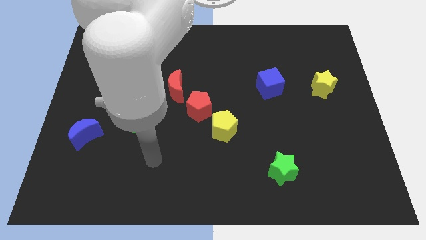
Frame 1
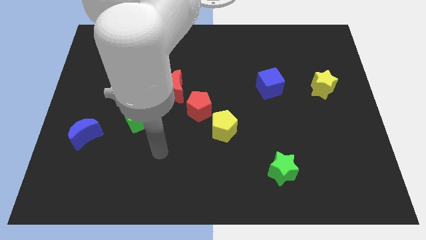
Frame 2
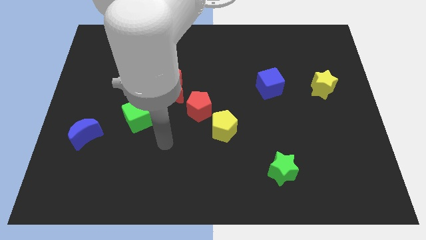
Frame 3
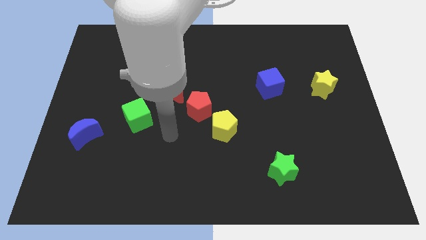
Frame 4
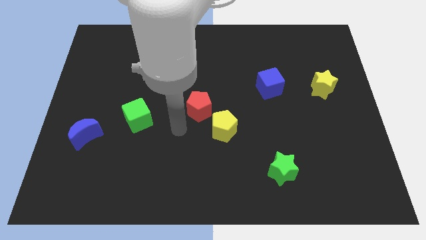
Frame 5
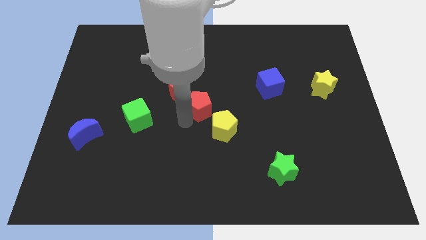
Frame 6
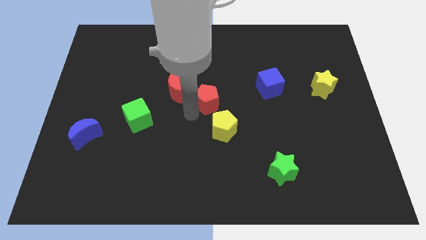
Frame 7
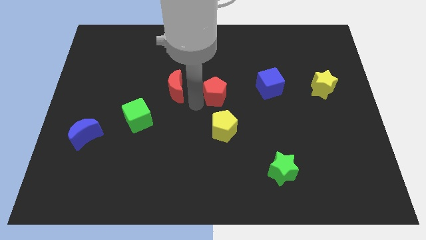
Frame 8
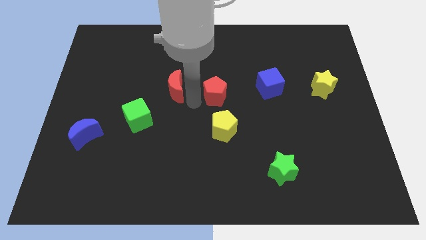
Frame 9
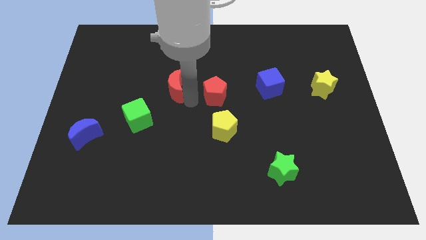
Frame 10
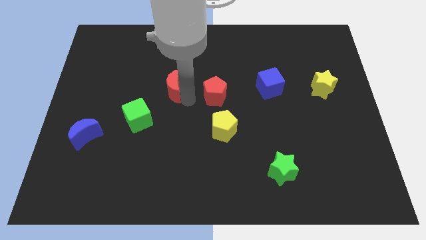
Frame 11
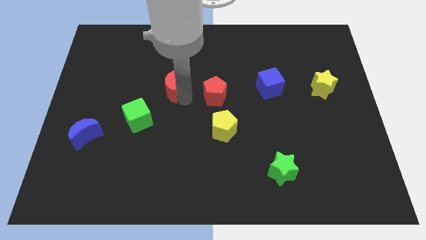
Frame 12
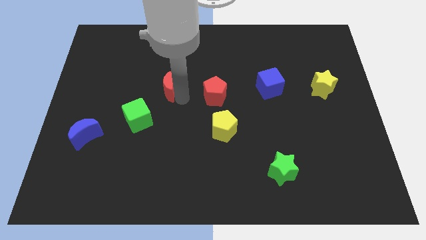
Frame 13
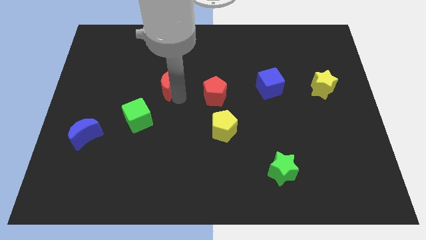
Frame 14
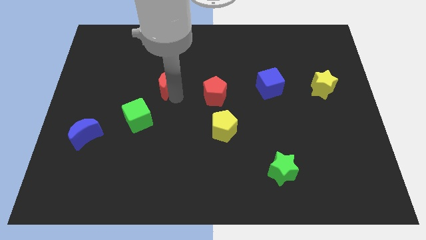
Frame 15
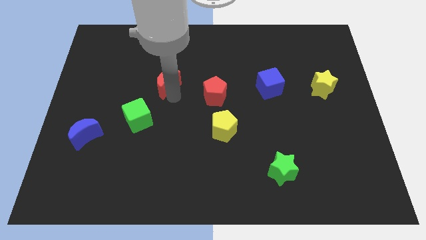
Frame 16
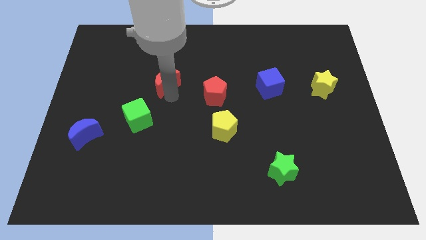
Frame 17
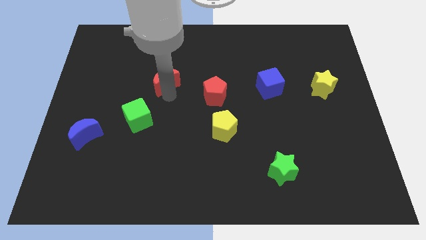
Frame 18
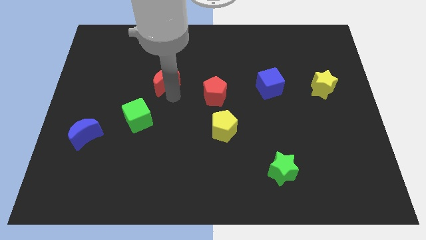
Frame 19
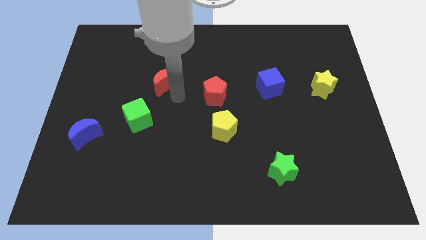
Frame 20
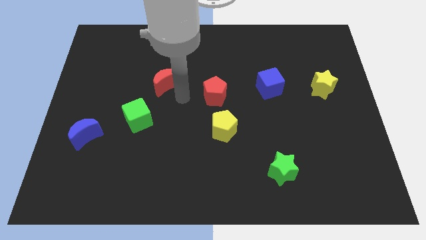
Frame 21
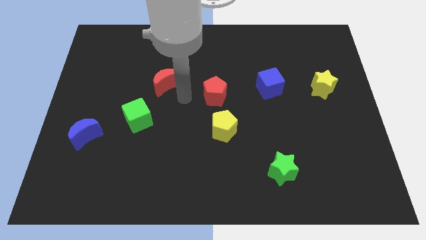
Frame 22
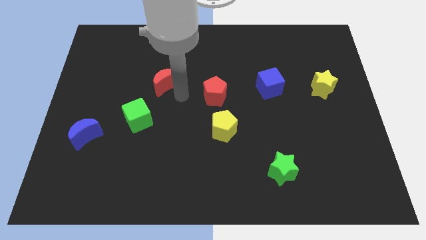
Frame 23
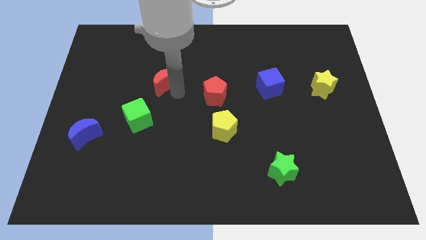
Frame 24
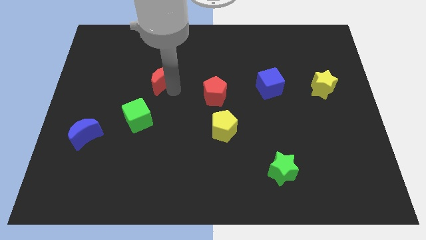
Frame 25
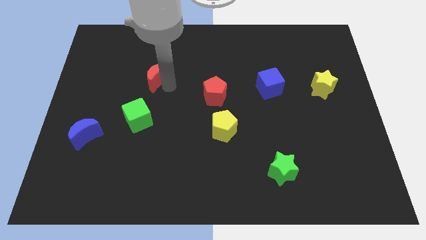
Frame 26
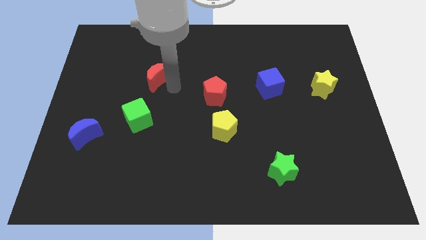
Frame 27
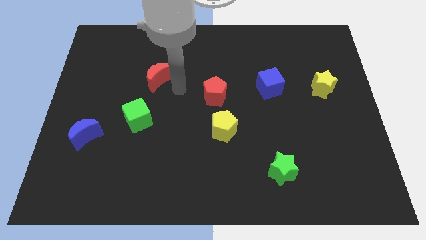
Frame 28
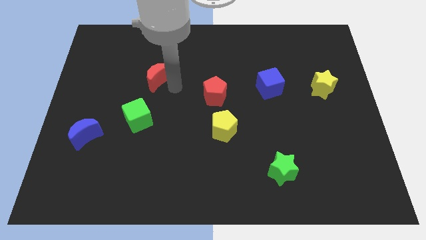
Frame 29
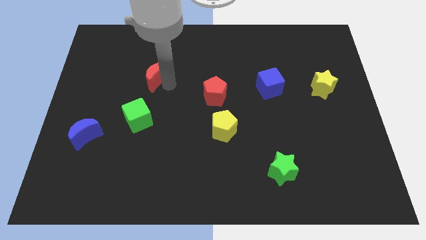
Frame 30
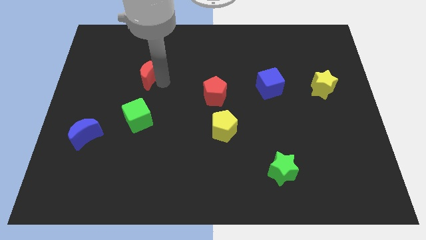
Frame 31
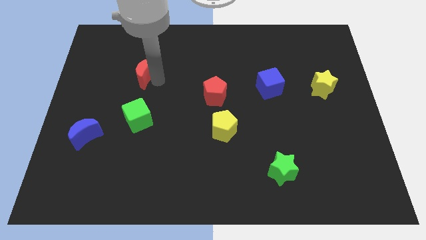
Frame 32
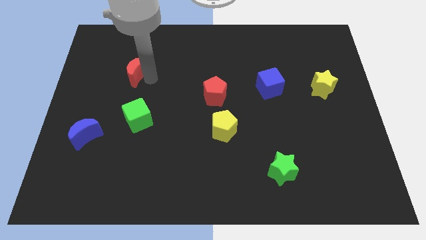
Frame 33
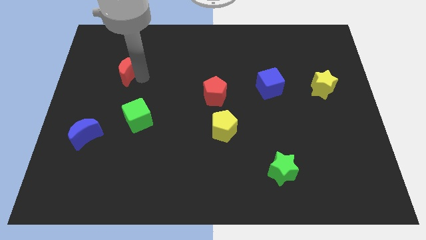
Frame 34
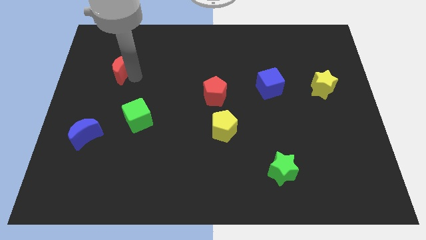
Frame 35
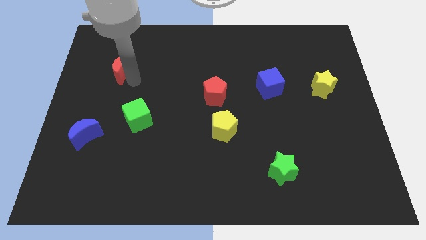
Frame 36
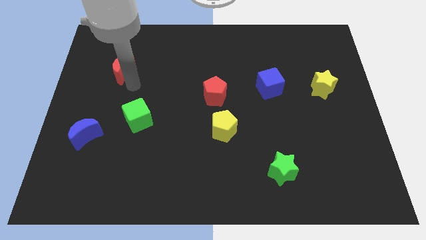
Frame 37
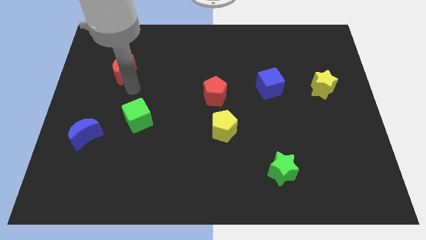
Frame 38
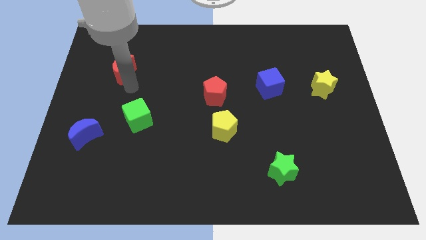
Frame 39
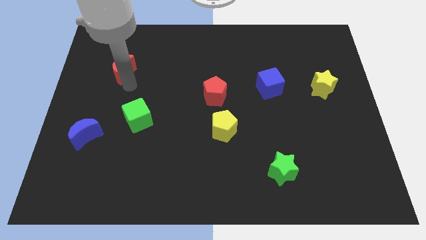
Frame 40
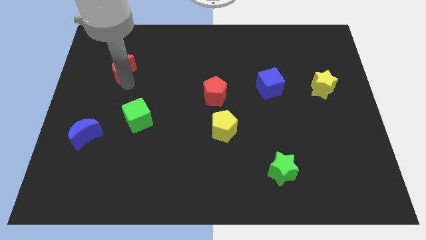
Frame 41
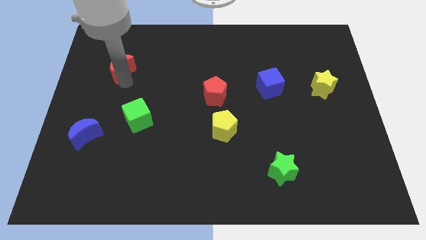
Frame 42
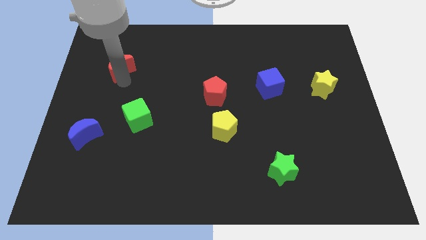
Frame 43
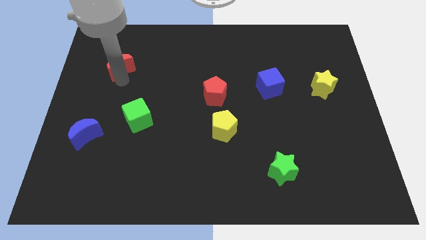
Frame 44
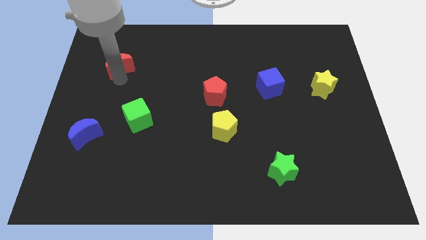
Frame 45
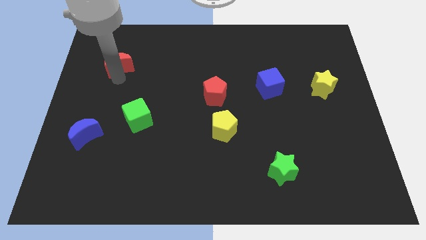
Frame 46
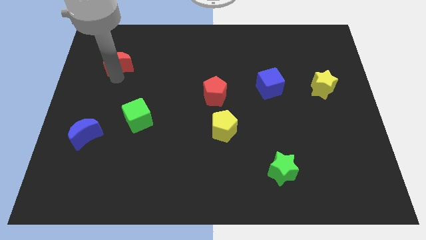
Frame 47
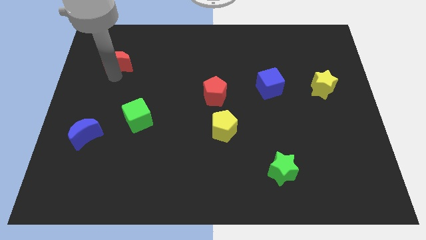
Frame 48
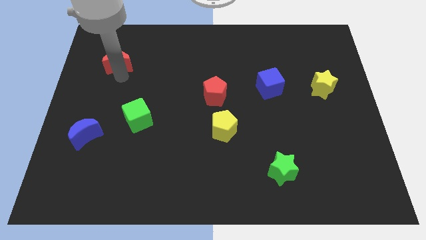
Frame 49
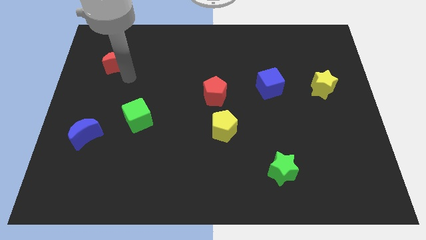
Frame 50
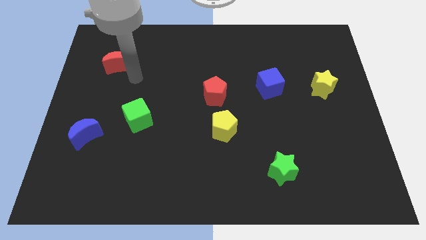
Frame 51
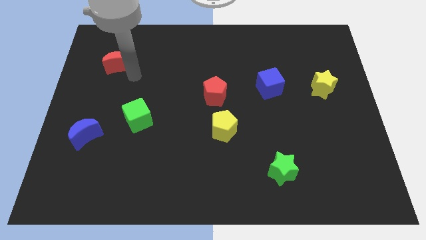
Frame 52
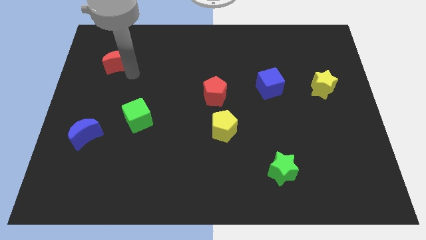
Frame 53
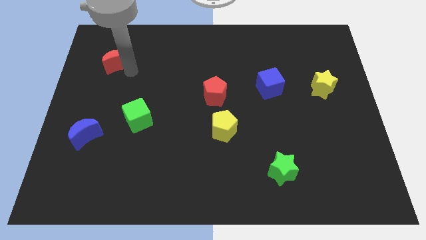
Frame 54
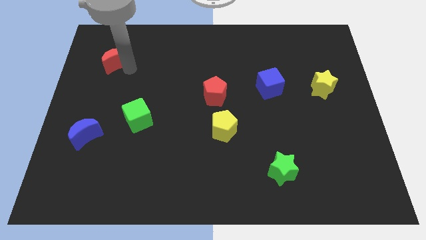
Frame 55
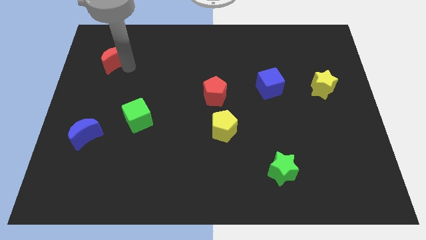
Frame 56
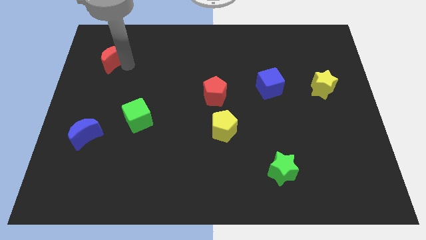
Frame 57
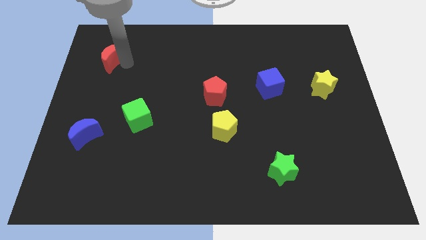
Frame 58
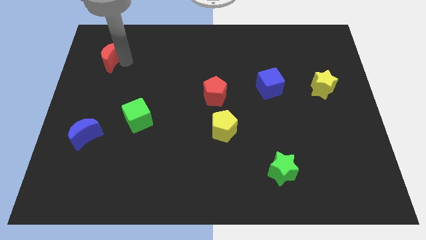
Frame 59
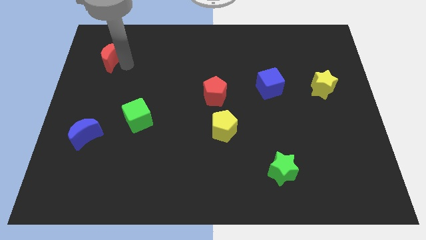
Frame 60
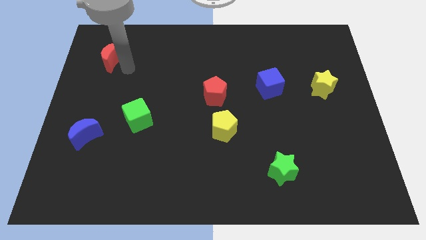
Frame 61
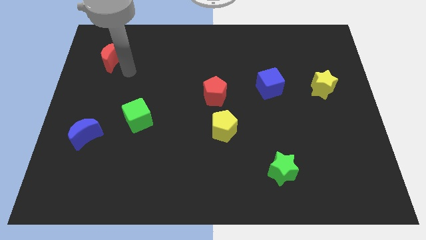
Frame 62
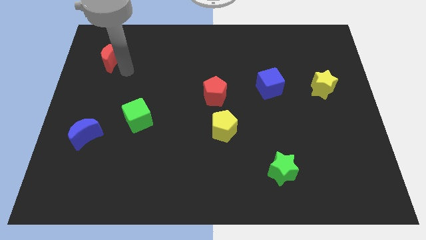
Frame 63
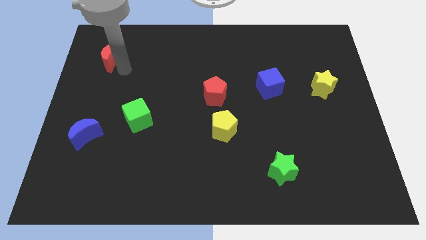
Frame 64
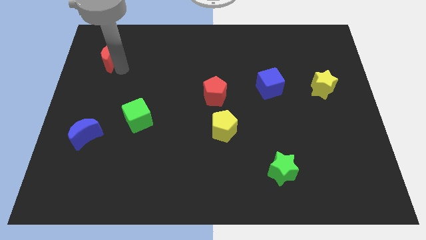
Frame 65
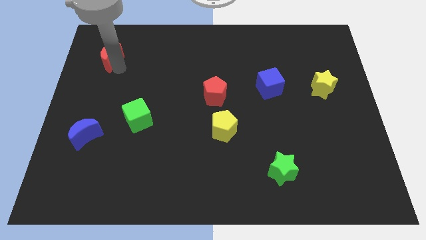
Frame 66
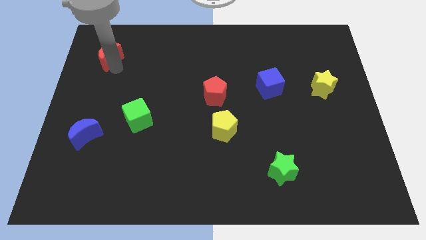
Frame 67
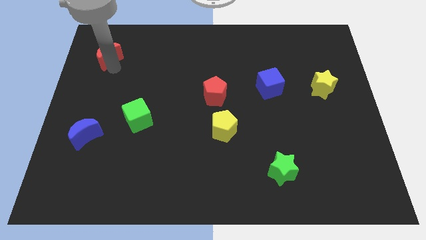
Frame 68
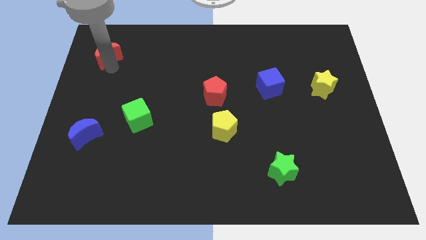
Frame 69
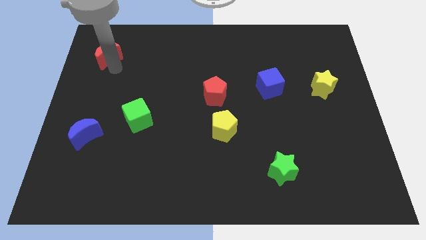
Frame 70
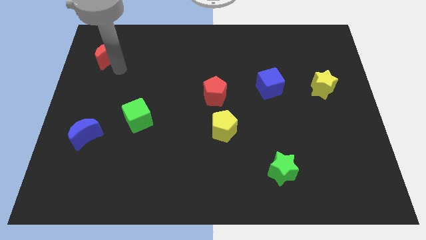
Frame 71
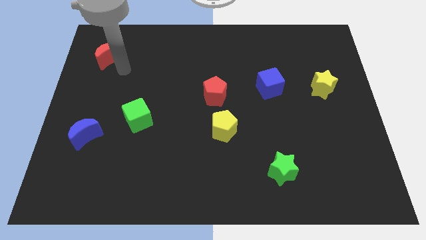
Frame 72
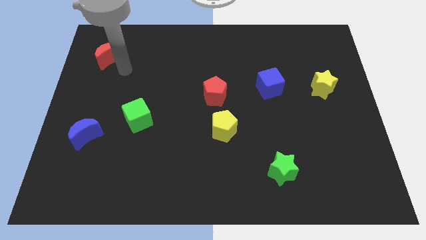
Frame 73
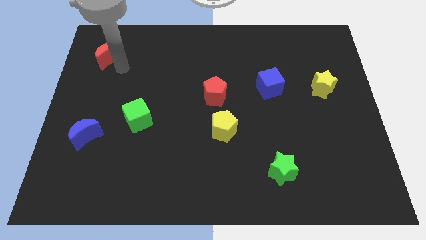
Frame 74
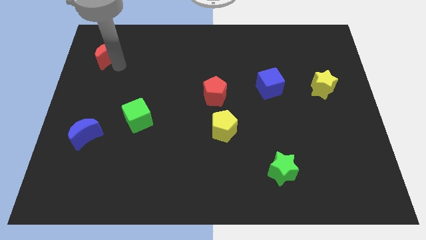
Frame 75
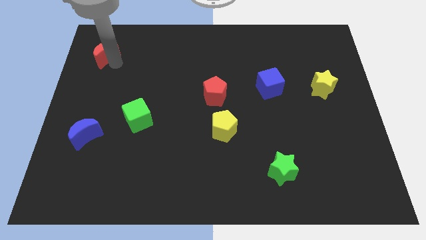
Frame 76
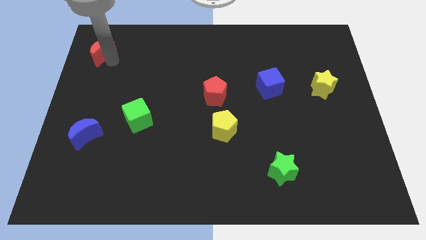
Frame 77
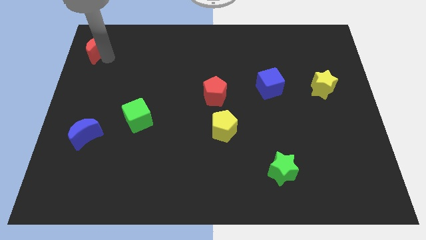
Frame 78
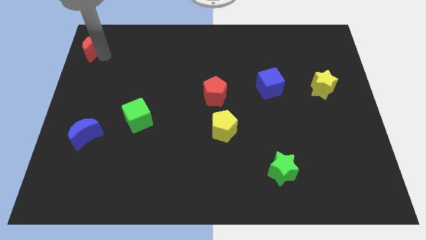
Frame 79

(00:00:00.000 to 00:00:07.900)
slide the red moon to the top left
